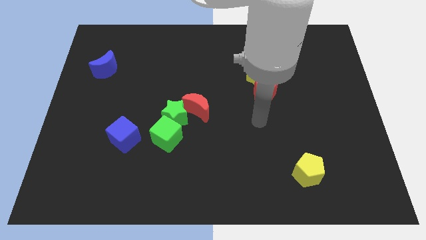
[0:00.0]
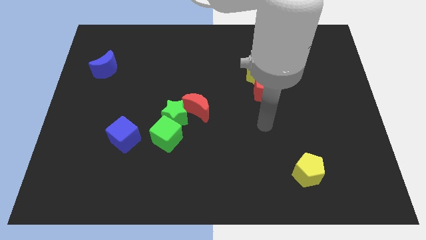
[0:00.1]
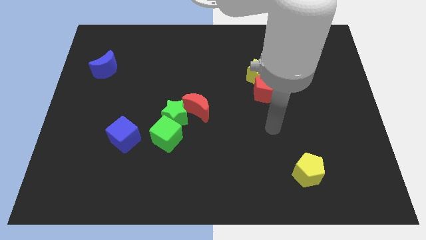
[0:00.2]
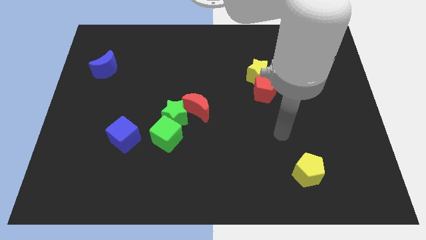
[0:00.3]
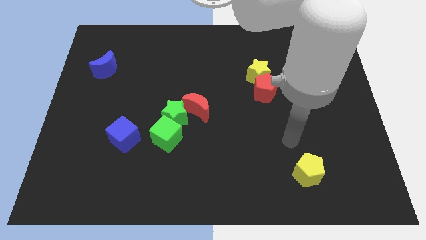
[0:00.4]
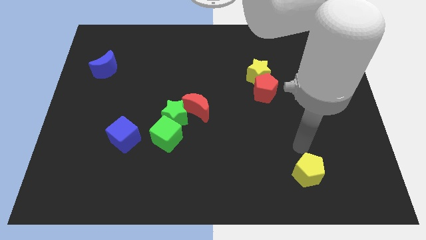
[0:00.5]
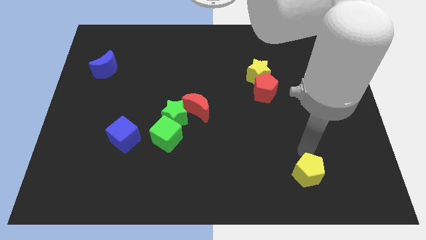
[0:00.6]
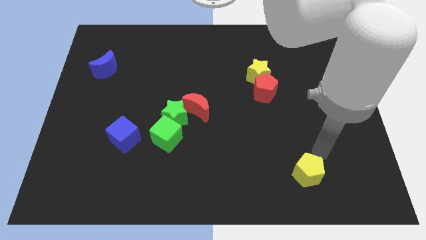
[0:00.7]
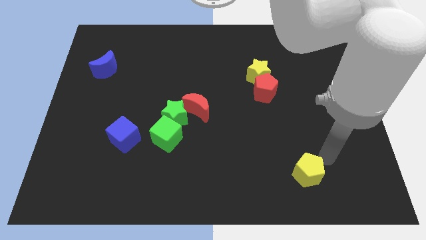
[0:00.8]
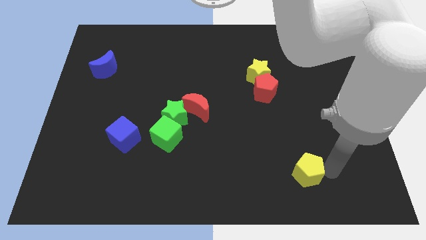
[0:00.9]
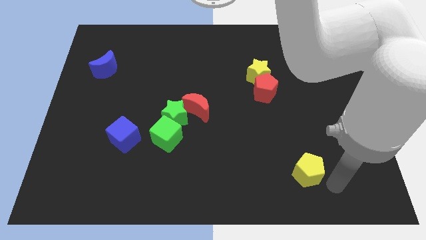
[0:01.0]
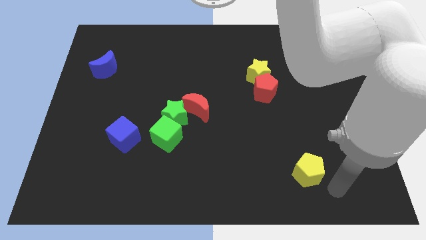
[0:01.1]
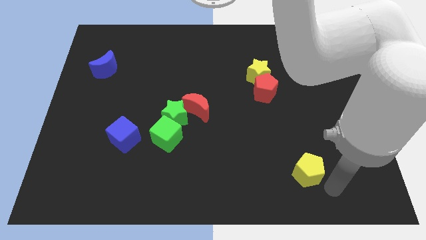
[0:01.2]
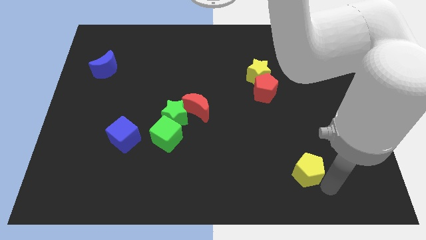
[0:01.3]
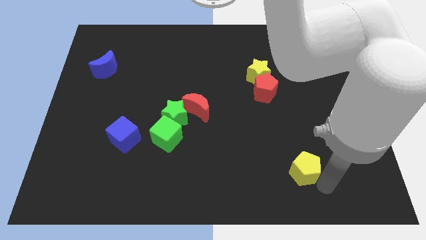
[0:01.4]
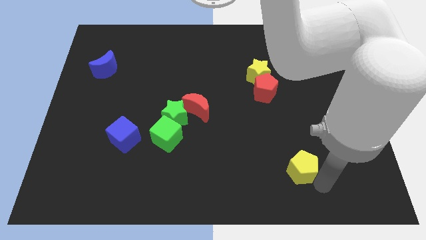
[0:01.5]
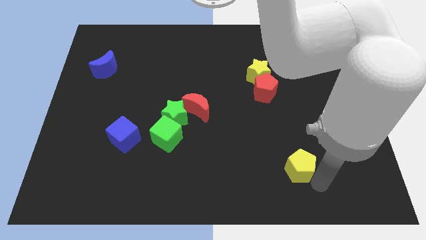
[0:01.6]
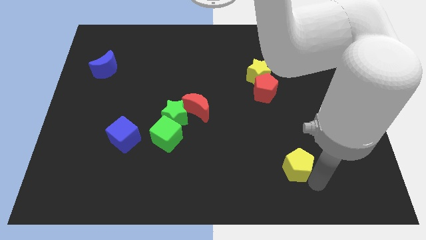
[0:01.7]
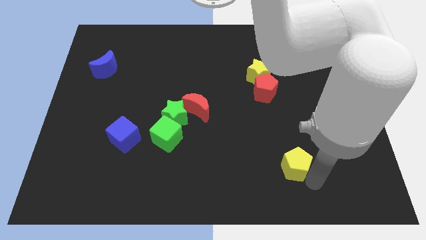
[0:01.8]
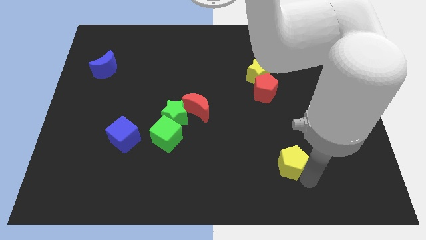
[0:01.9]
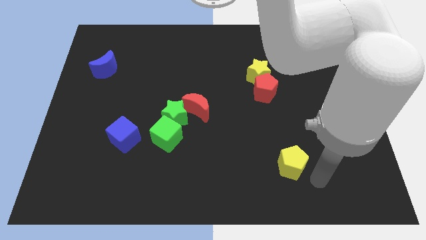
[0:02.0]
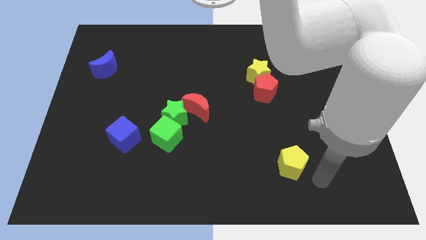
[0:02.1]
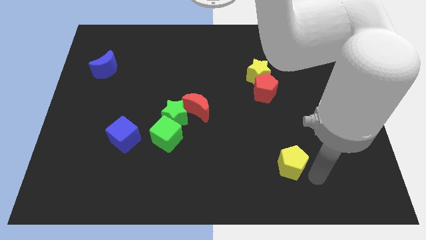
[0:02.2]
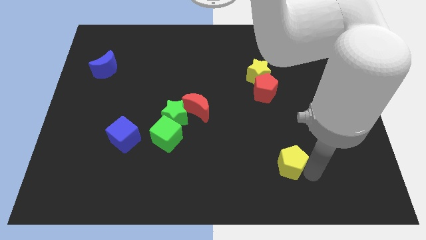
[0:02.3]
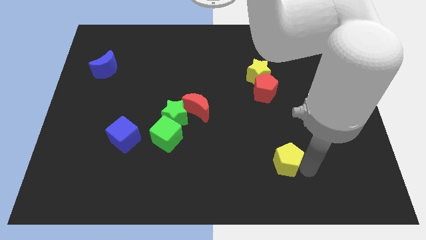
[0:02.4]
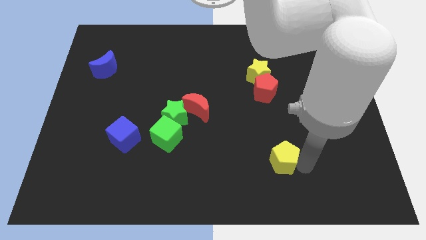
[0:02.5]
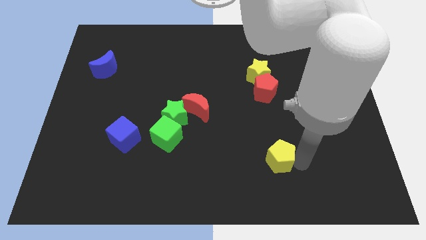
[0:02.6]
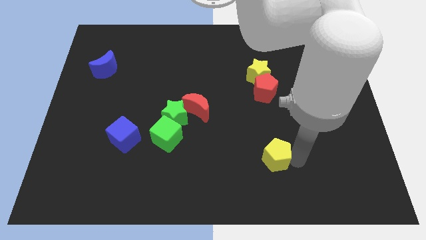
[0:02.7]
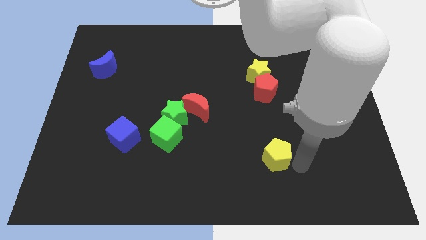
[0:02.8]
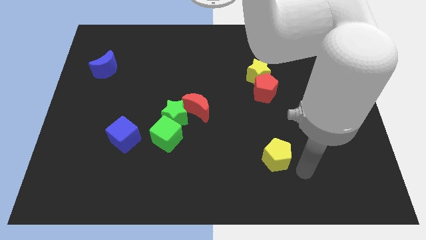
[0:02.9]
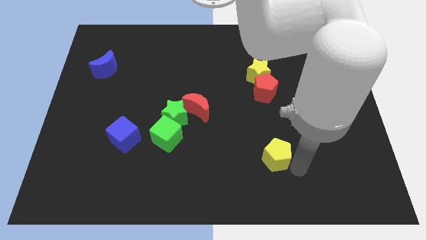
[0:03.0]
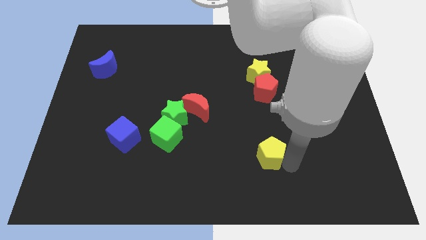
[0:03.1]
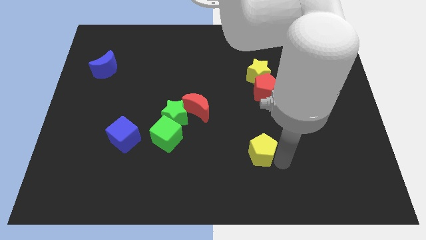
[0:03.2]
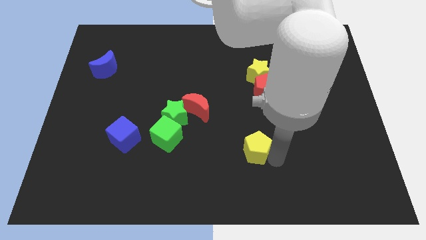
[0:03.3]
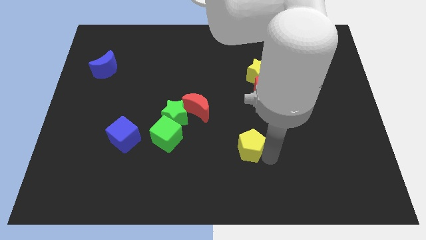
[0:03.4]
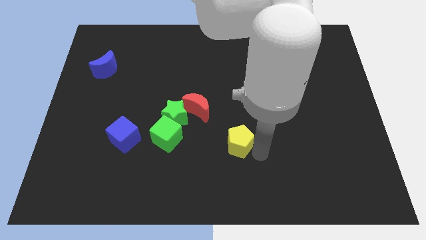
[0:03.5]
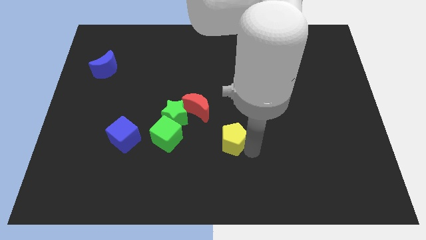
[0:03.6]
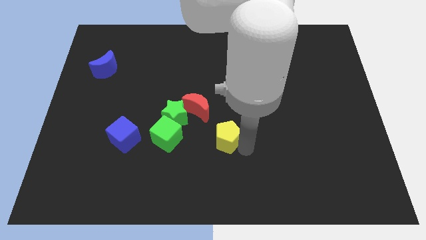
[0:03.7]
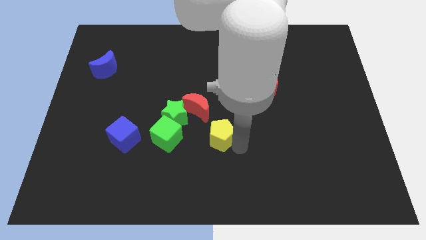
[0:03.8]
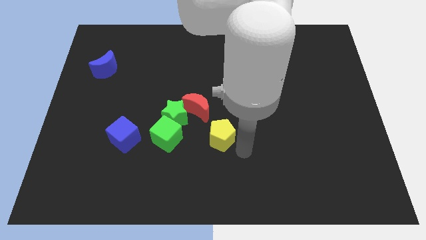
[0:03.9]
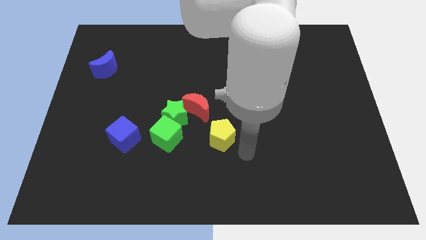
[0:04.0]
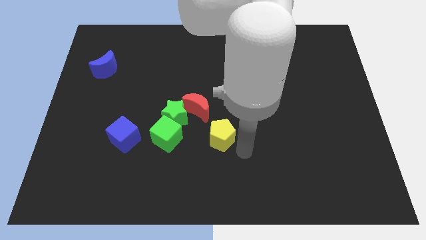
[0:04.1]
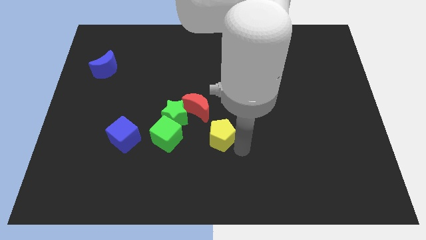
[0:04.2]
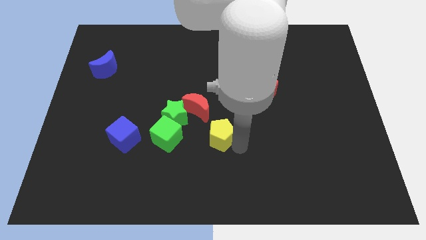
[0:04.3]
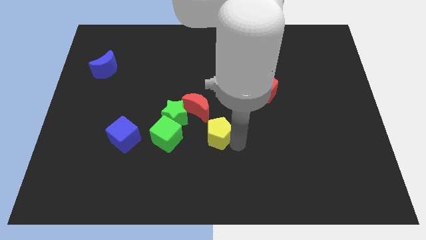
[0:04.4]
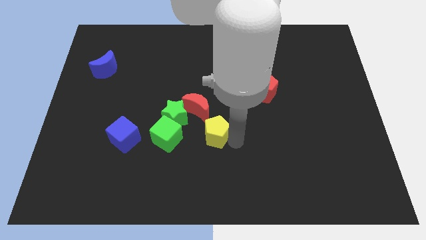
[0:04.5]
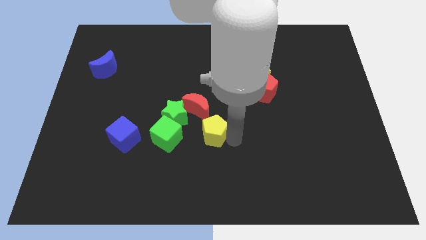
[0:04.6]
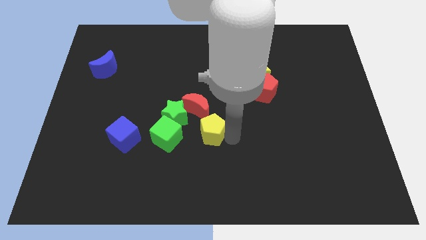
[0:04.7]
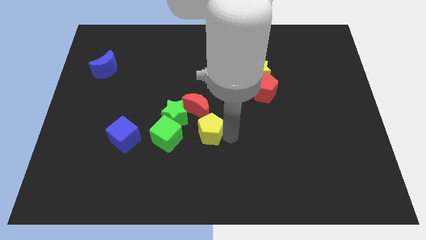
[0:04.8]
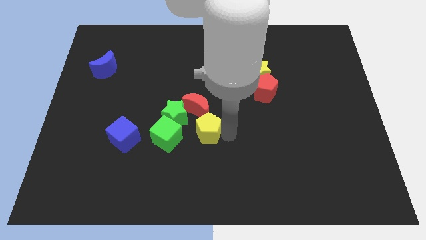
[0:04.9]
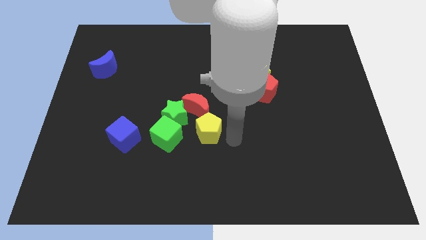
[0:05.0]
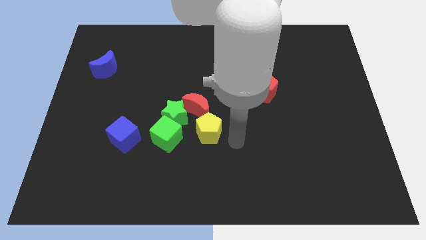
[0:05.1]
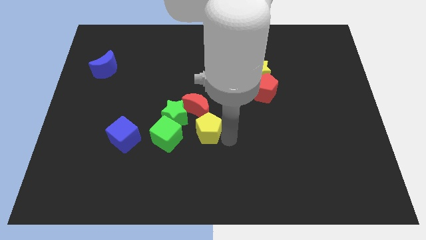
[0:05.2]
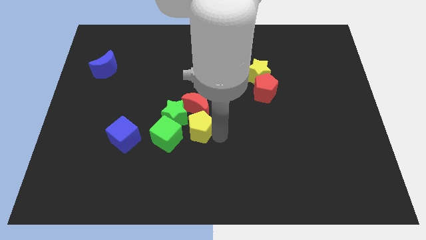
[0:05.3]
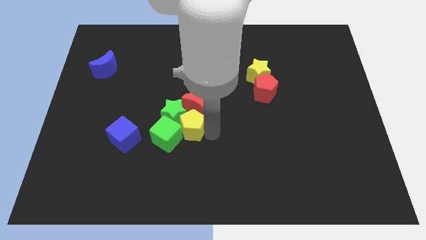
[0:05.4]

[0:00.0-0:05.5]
put the yellow pentagon next to the green star

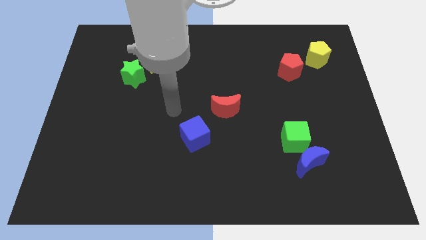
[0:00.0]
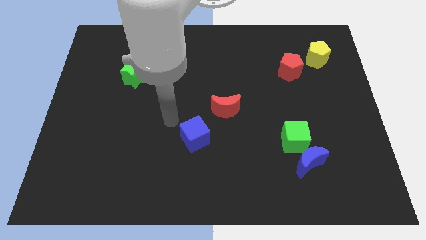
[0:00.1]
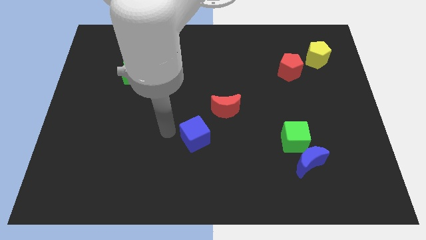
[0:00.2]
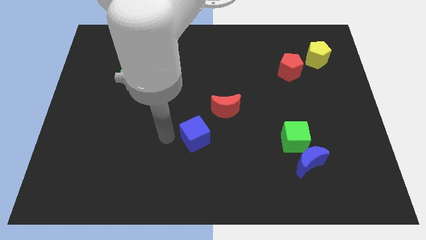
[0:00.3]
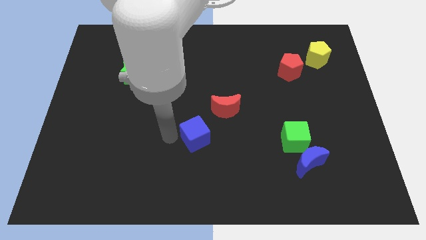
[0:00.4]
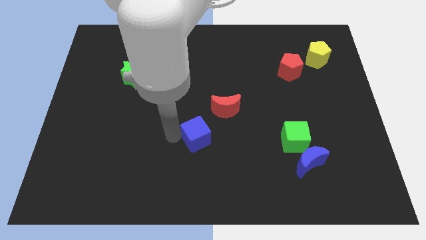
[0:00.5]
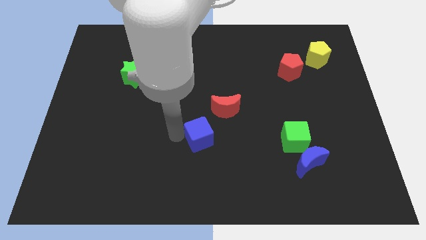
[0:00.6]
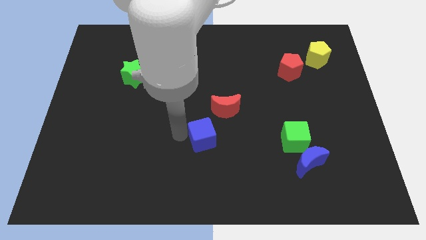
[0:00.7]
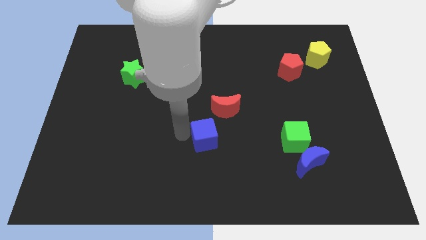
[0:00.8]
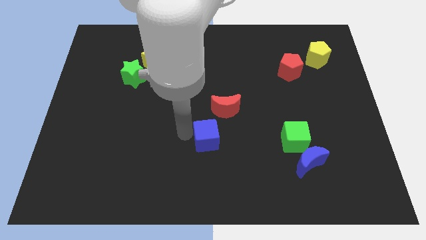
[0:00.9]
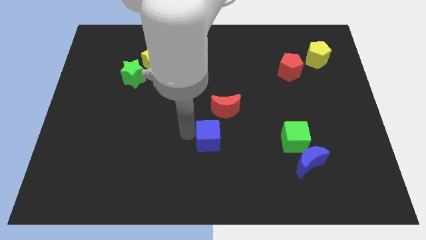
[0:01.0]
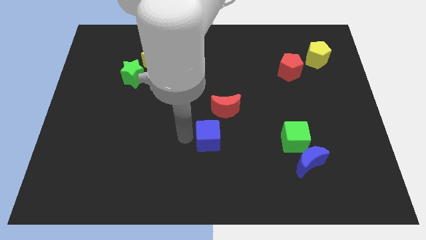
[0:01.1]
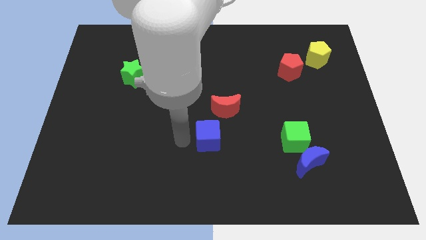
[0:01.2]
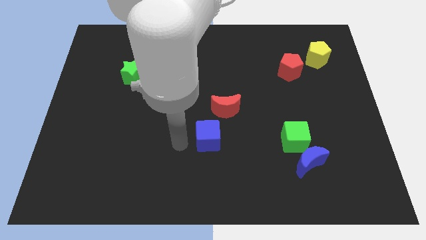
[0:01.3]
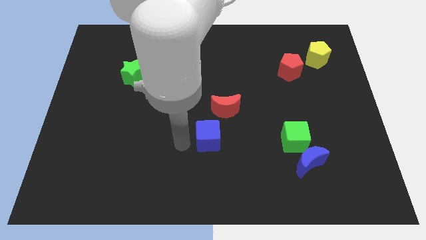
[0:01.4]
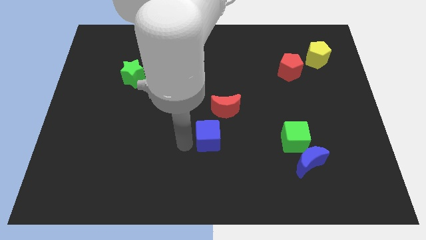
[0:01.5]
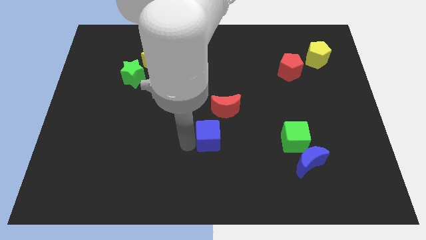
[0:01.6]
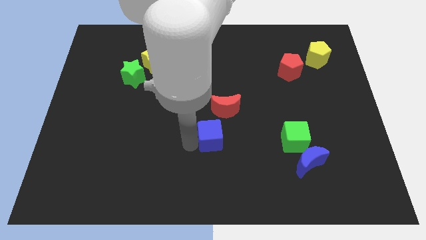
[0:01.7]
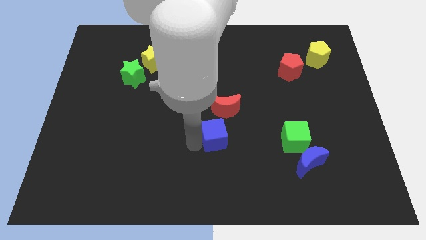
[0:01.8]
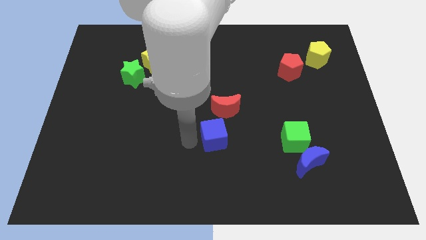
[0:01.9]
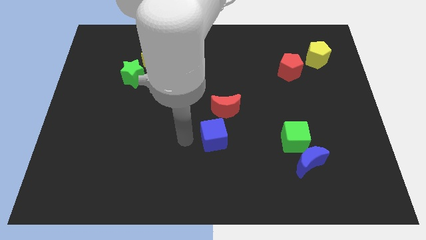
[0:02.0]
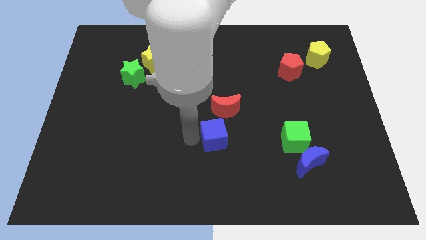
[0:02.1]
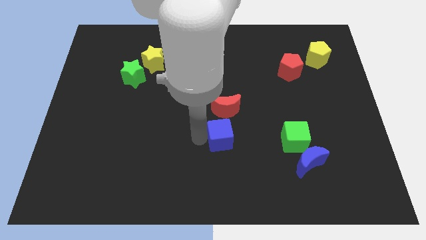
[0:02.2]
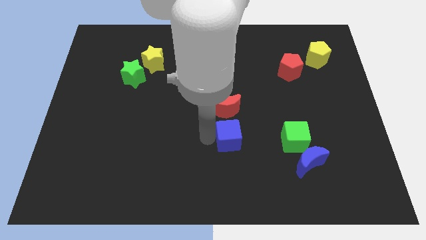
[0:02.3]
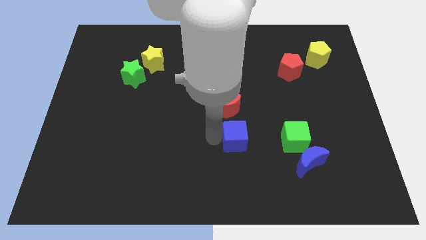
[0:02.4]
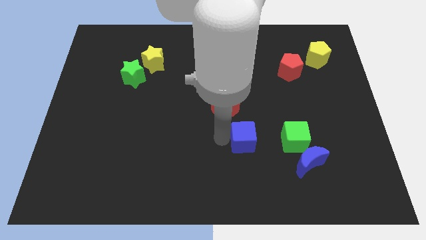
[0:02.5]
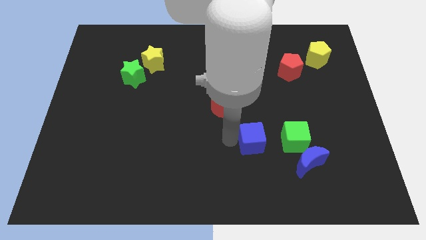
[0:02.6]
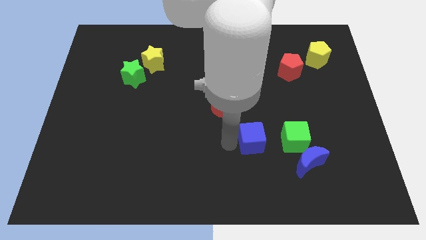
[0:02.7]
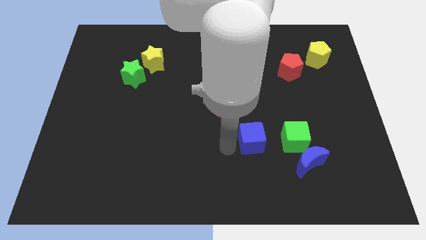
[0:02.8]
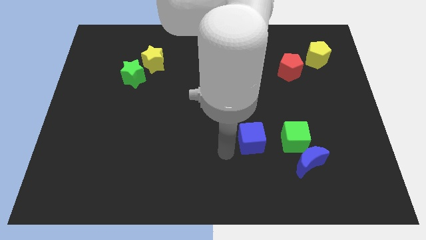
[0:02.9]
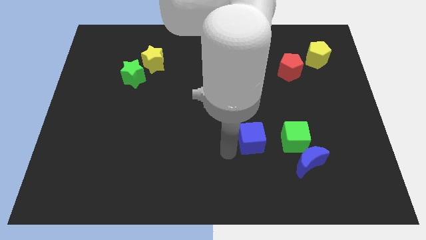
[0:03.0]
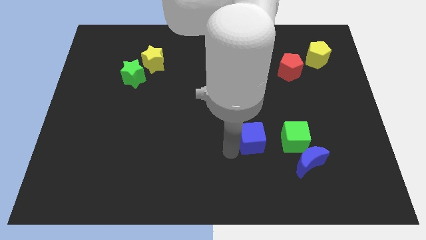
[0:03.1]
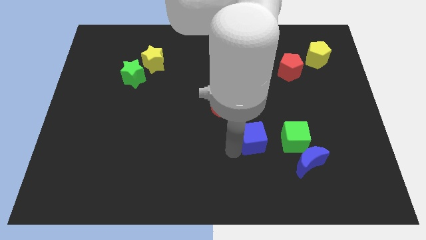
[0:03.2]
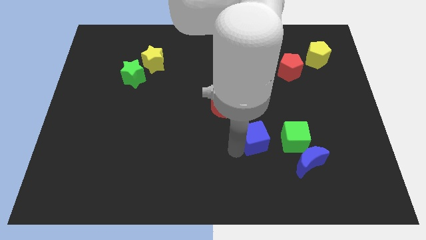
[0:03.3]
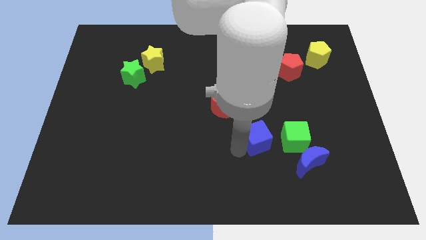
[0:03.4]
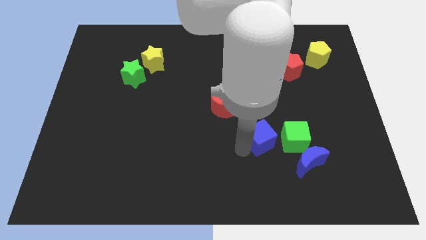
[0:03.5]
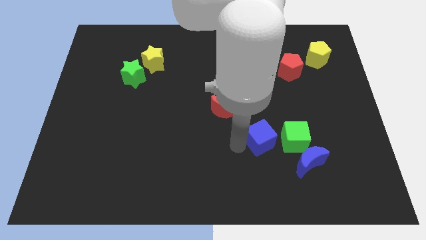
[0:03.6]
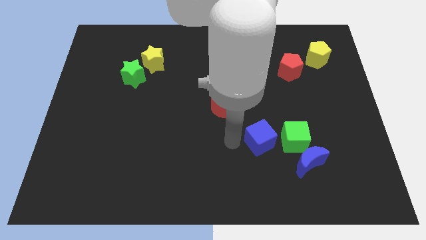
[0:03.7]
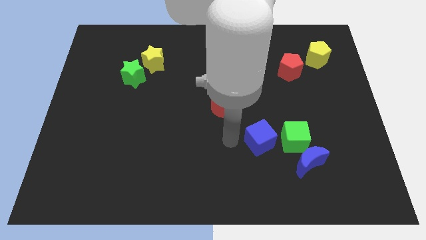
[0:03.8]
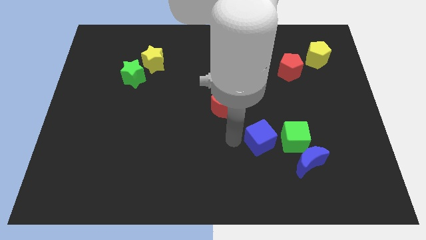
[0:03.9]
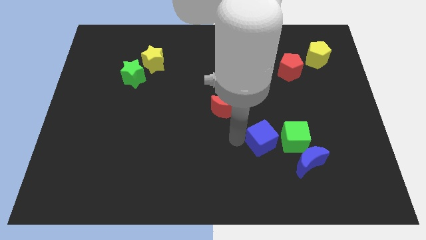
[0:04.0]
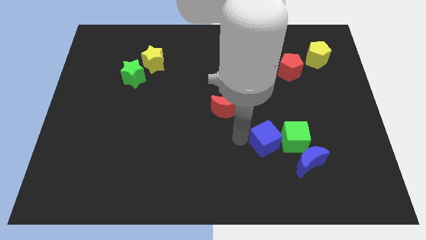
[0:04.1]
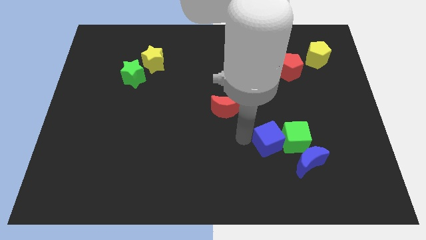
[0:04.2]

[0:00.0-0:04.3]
move the blue cube next to the green cube
